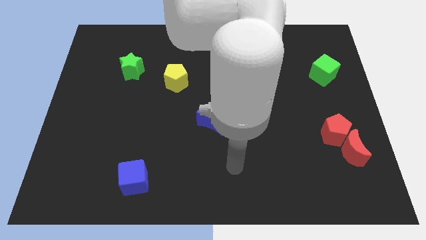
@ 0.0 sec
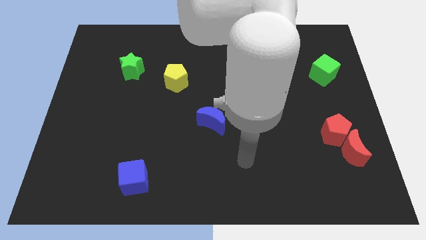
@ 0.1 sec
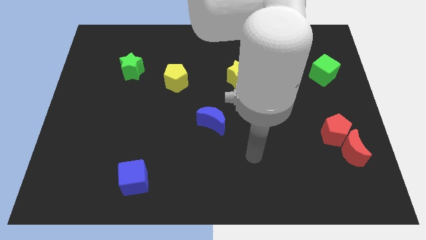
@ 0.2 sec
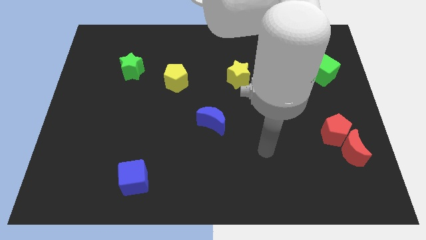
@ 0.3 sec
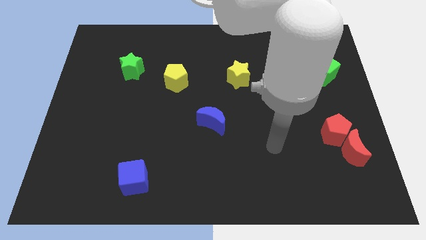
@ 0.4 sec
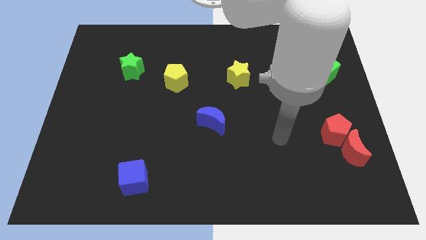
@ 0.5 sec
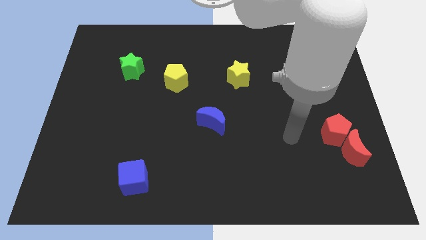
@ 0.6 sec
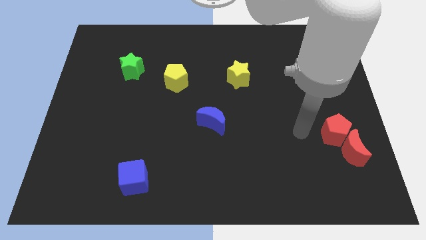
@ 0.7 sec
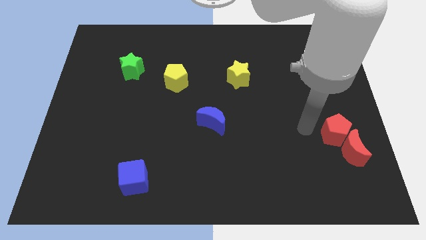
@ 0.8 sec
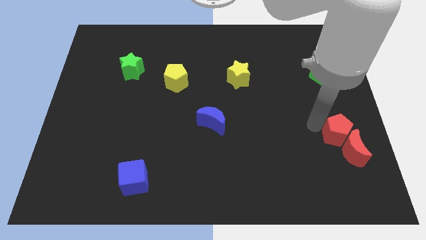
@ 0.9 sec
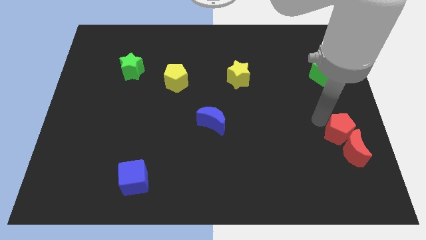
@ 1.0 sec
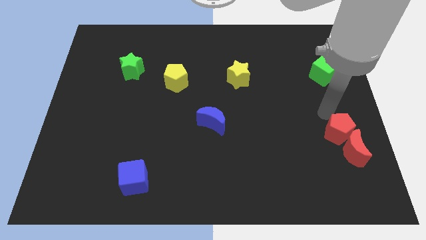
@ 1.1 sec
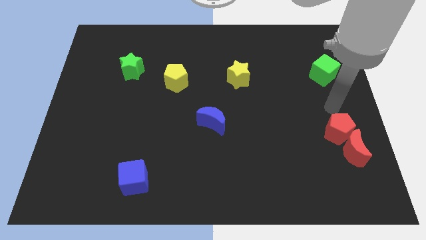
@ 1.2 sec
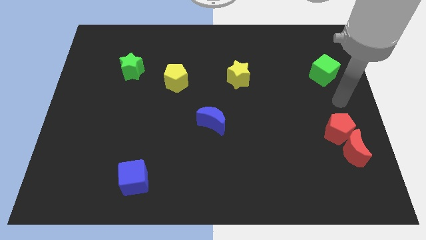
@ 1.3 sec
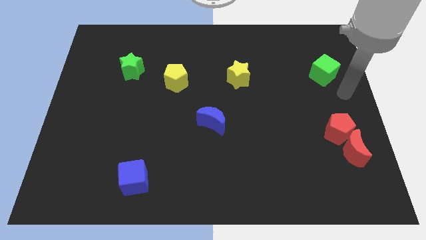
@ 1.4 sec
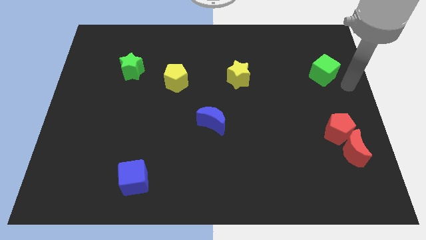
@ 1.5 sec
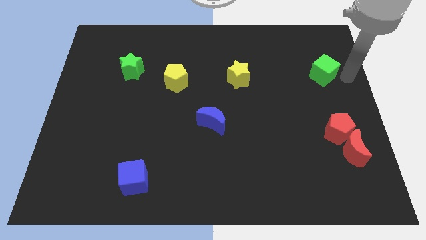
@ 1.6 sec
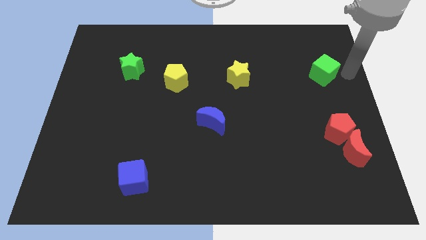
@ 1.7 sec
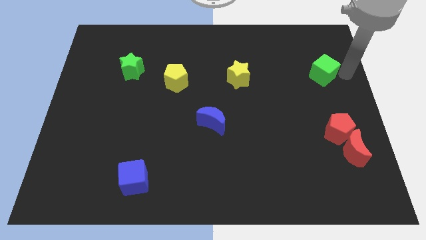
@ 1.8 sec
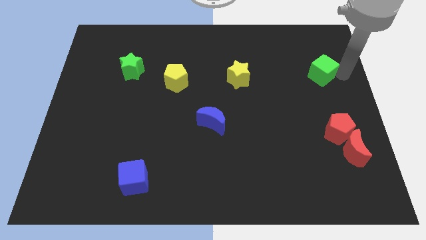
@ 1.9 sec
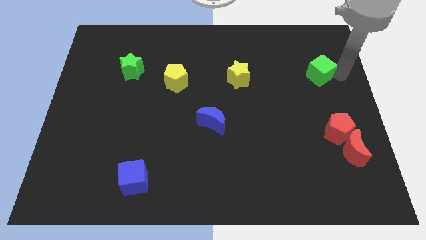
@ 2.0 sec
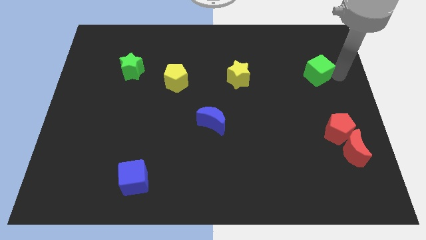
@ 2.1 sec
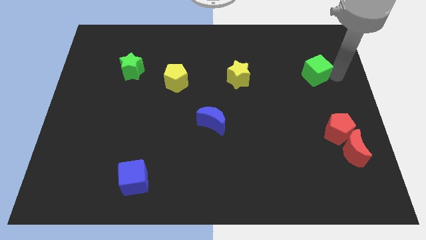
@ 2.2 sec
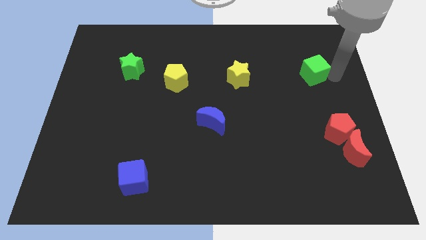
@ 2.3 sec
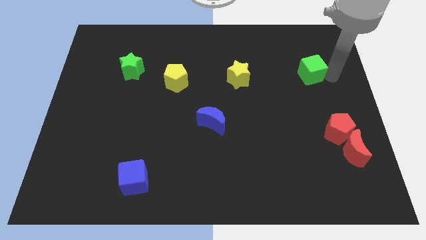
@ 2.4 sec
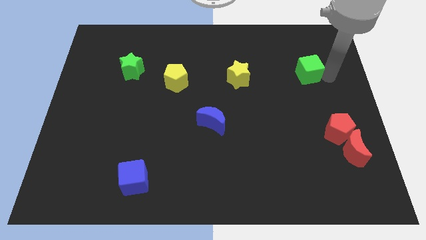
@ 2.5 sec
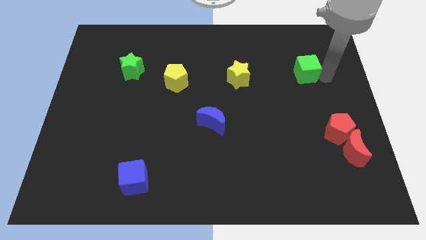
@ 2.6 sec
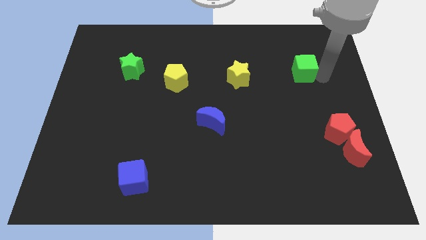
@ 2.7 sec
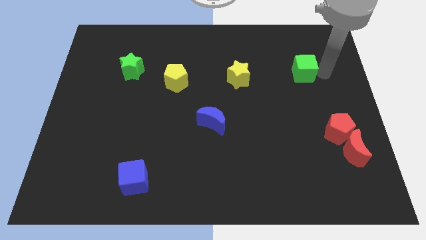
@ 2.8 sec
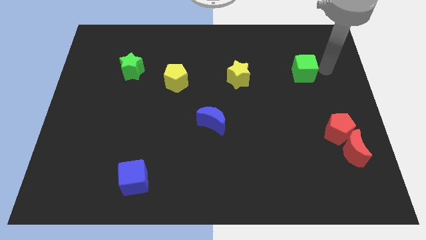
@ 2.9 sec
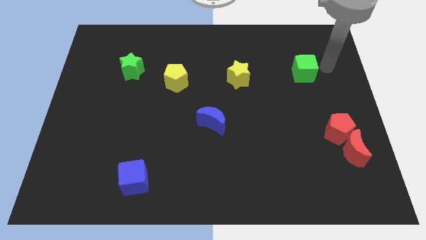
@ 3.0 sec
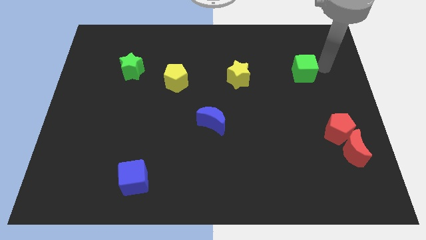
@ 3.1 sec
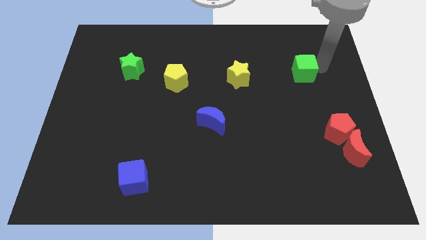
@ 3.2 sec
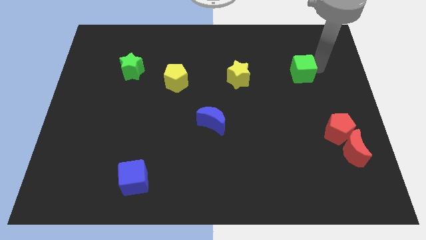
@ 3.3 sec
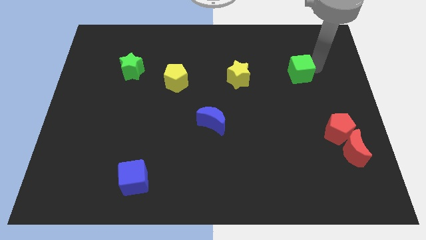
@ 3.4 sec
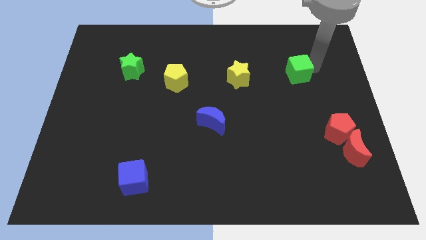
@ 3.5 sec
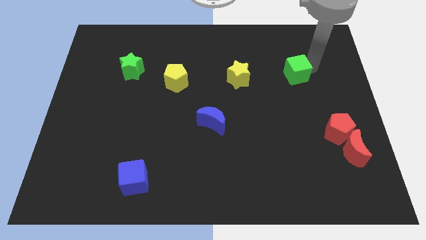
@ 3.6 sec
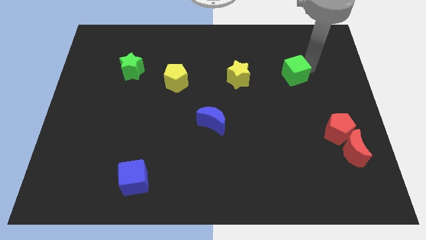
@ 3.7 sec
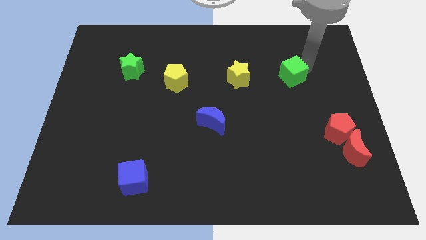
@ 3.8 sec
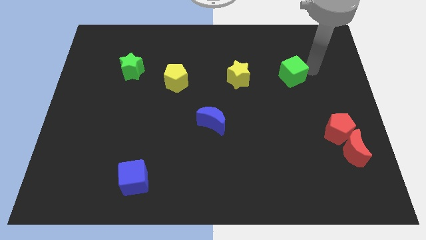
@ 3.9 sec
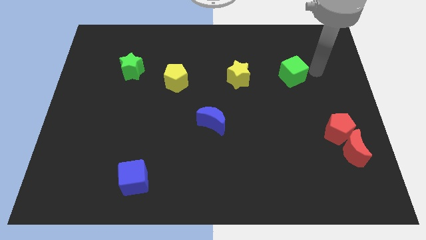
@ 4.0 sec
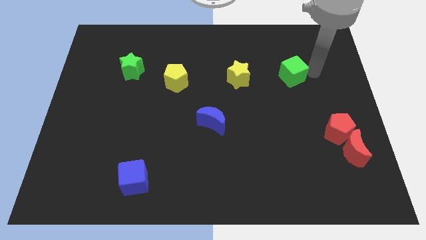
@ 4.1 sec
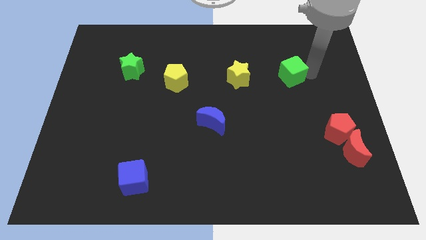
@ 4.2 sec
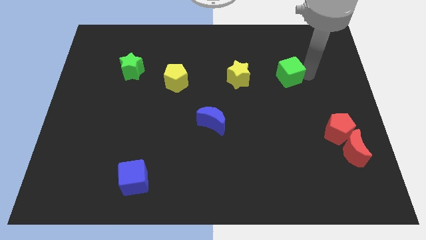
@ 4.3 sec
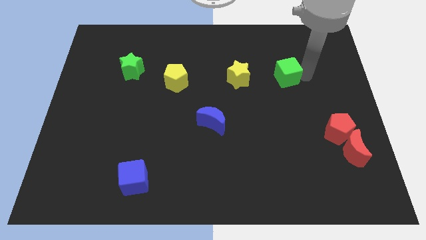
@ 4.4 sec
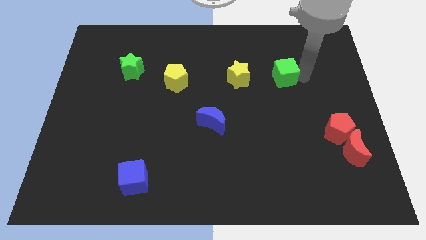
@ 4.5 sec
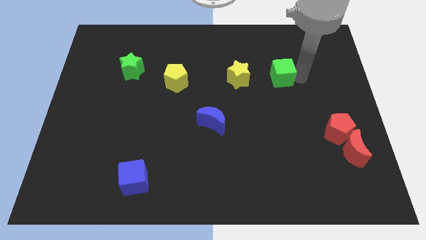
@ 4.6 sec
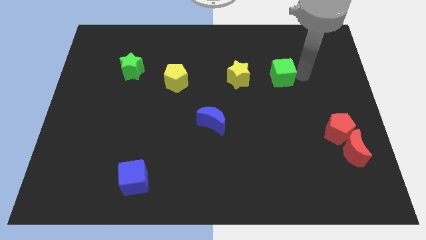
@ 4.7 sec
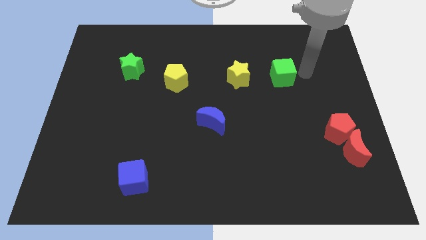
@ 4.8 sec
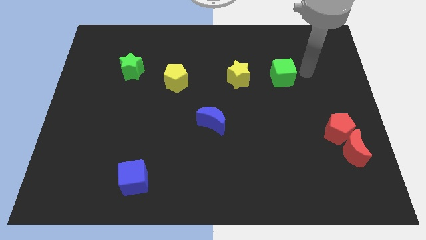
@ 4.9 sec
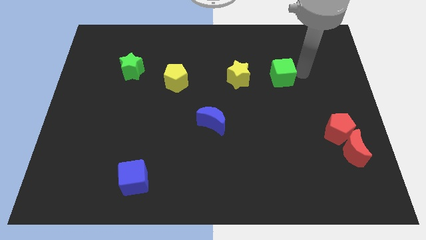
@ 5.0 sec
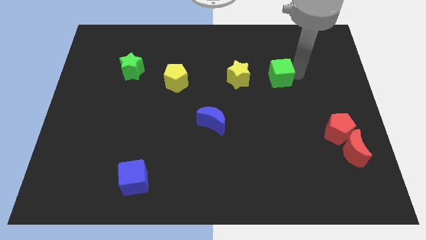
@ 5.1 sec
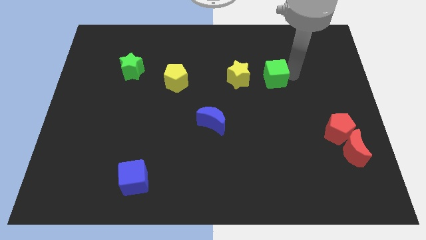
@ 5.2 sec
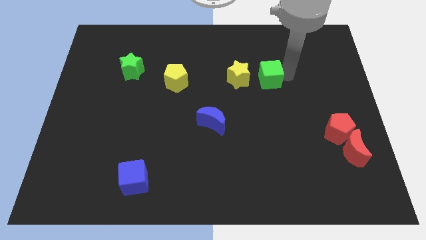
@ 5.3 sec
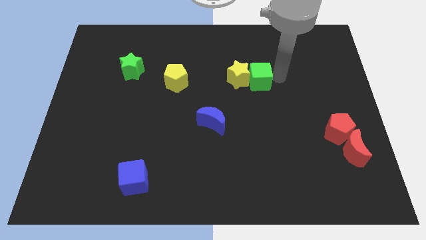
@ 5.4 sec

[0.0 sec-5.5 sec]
push the green cube to the yellow star

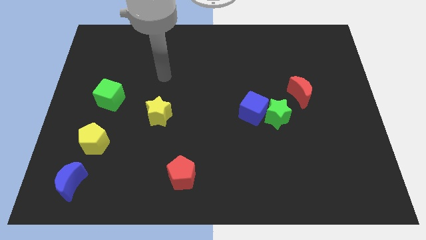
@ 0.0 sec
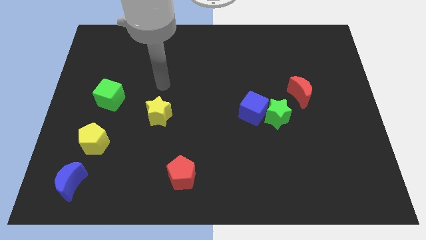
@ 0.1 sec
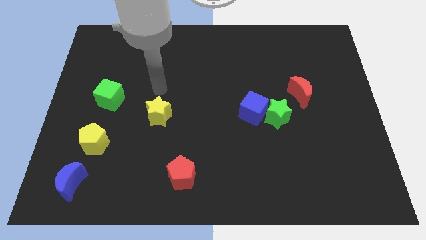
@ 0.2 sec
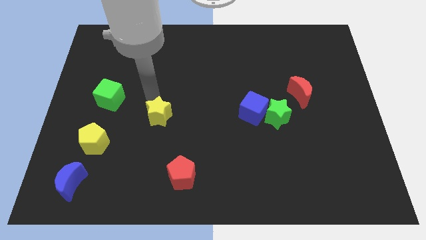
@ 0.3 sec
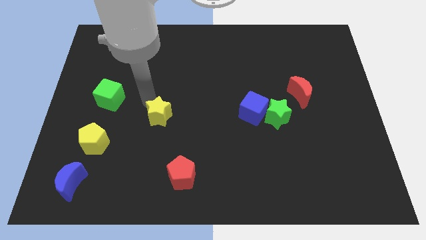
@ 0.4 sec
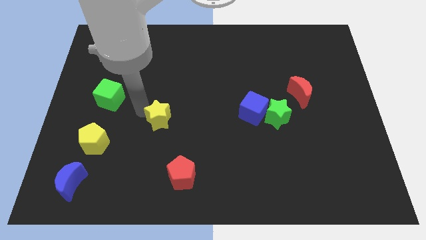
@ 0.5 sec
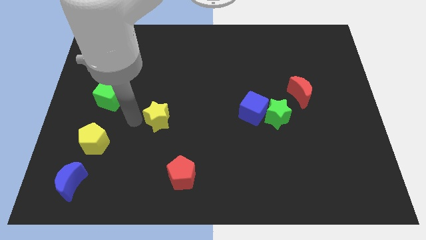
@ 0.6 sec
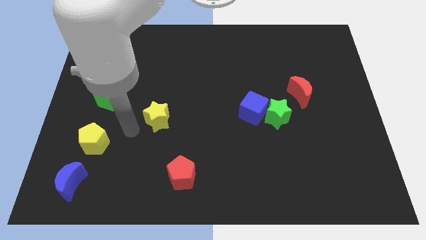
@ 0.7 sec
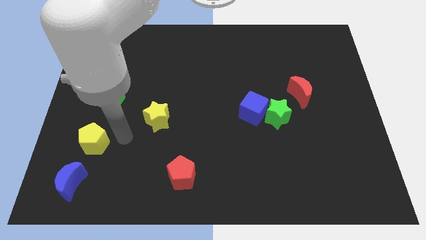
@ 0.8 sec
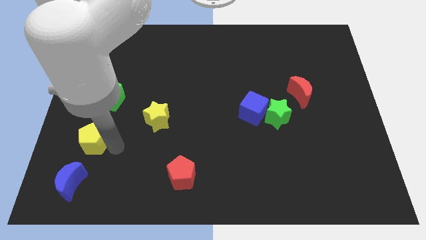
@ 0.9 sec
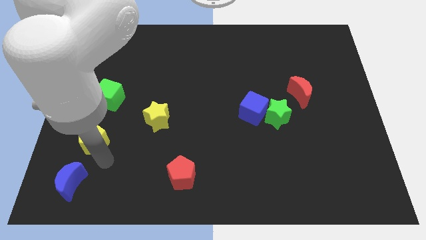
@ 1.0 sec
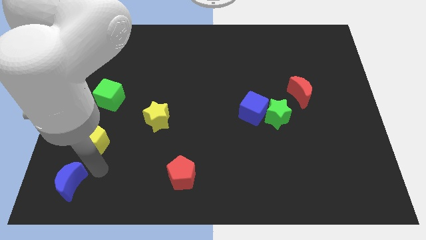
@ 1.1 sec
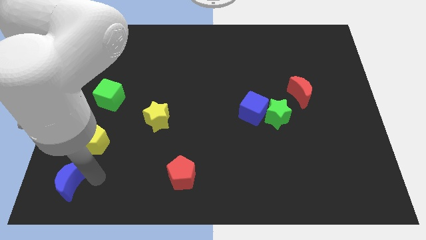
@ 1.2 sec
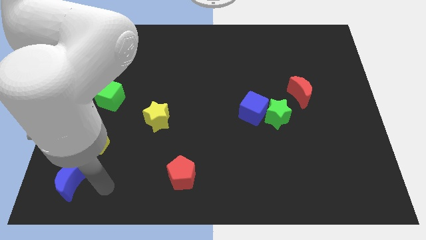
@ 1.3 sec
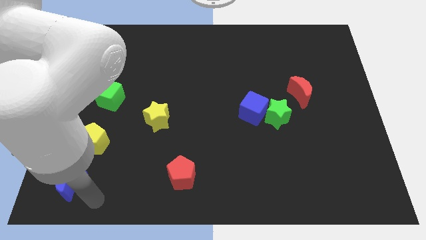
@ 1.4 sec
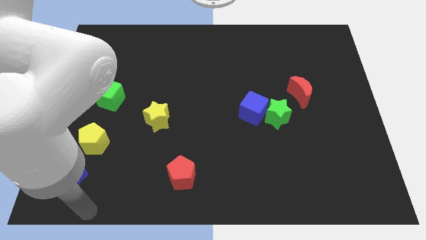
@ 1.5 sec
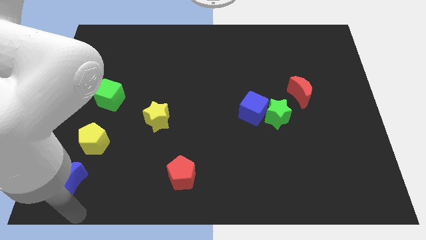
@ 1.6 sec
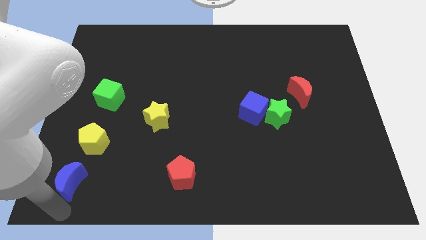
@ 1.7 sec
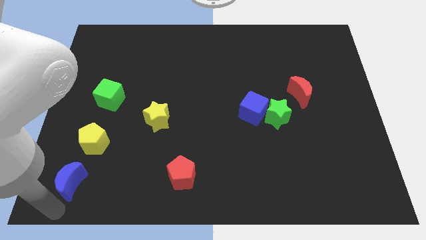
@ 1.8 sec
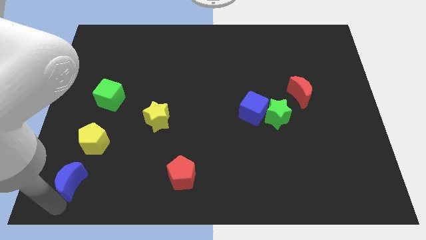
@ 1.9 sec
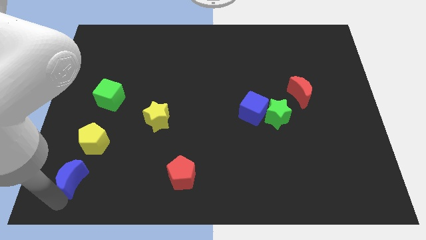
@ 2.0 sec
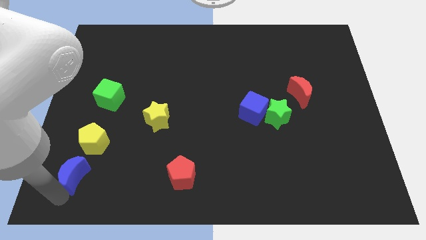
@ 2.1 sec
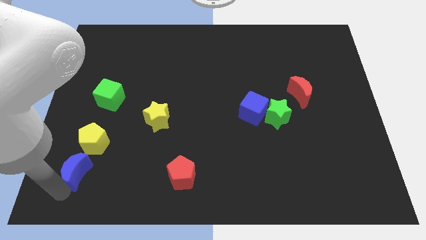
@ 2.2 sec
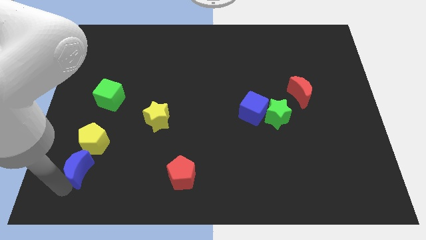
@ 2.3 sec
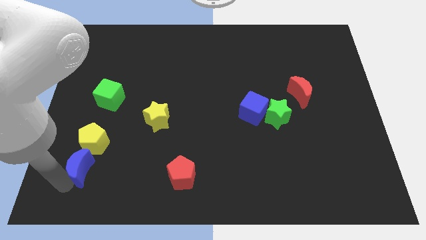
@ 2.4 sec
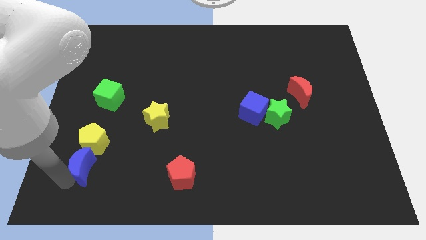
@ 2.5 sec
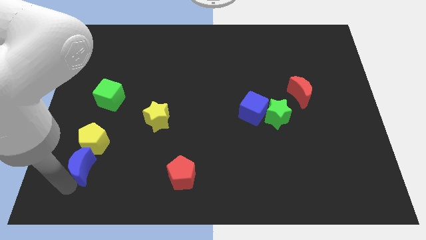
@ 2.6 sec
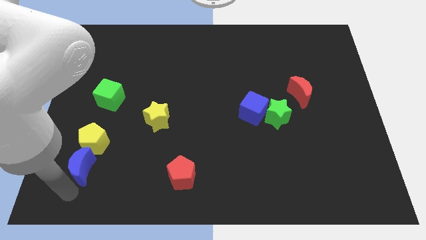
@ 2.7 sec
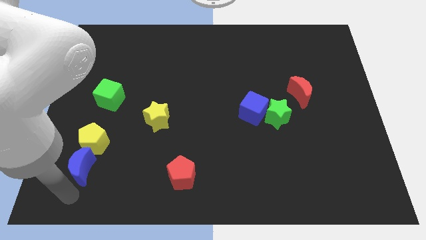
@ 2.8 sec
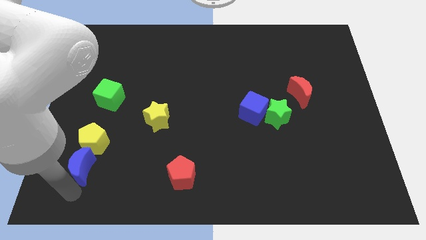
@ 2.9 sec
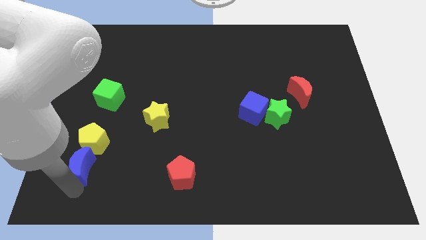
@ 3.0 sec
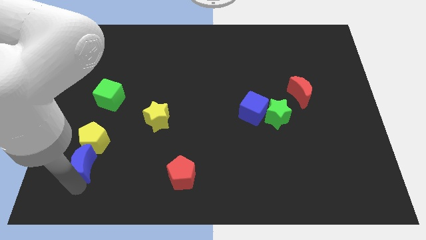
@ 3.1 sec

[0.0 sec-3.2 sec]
put the blue moon next to the yellow pentagon
